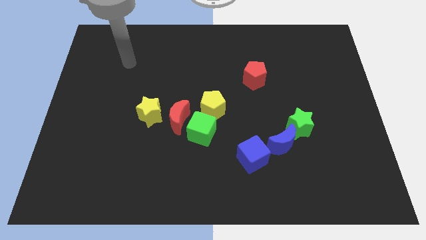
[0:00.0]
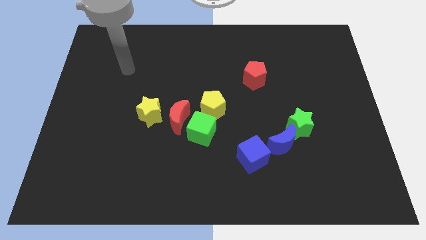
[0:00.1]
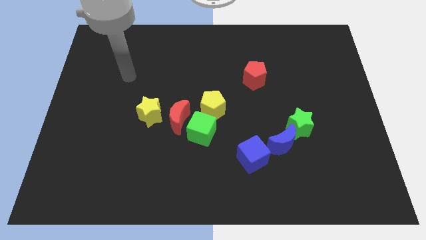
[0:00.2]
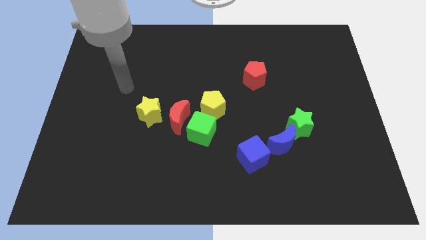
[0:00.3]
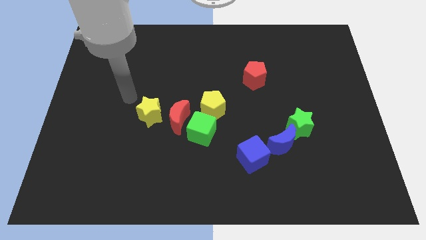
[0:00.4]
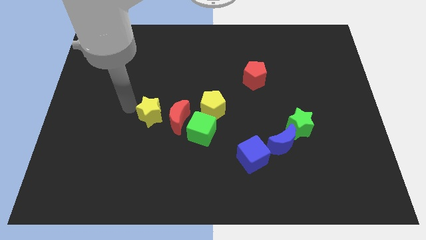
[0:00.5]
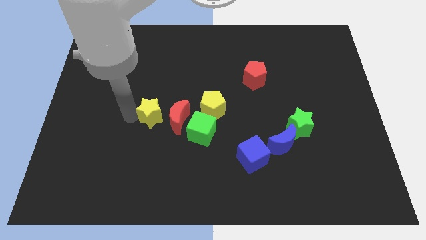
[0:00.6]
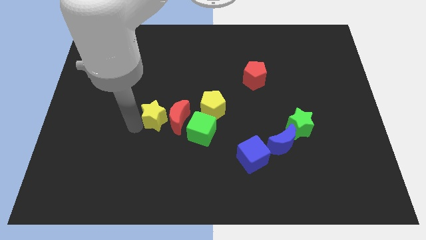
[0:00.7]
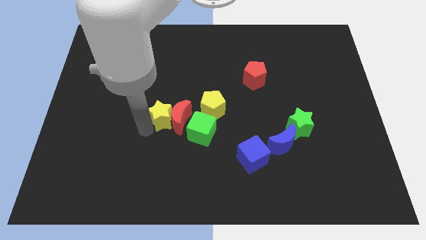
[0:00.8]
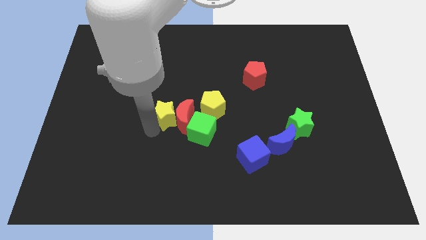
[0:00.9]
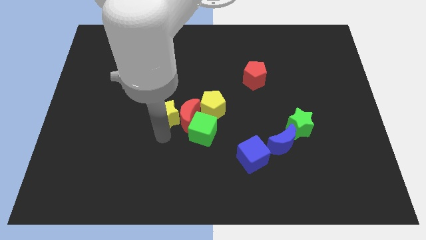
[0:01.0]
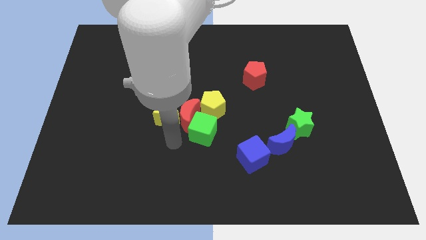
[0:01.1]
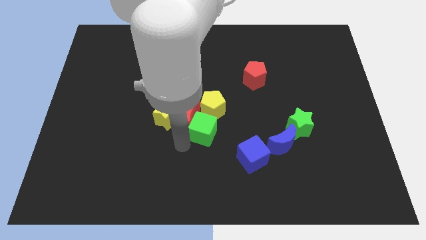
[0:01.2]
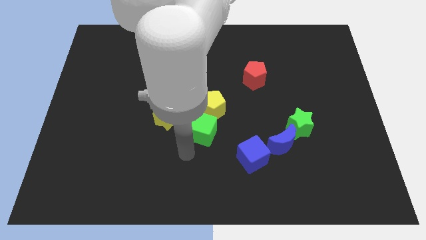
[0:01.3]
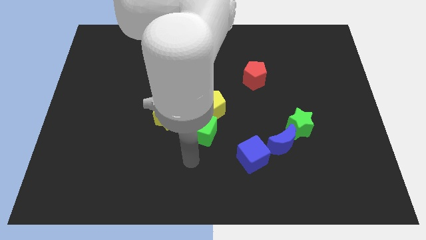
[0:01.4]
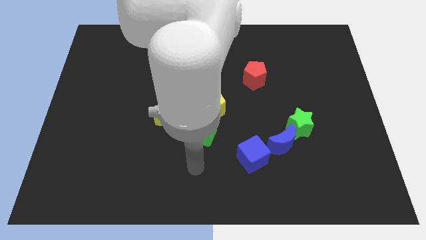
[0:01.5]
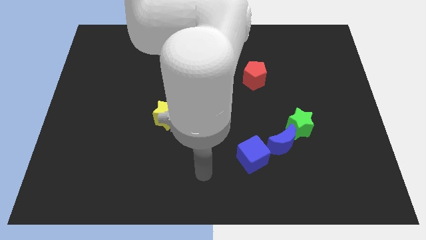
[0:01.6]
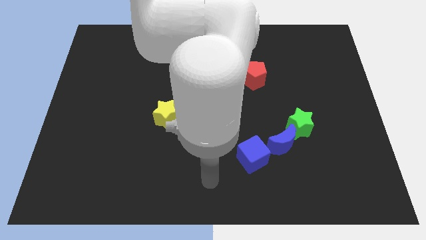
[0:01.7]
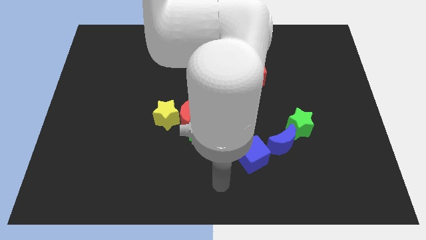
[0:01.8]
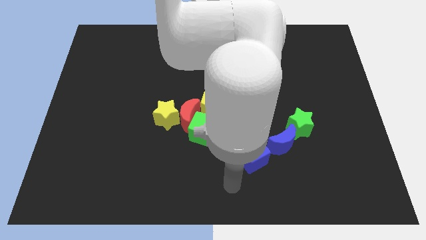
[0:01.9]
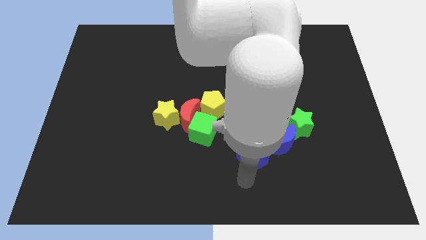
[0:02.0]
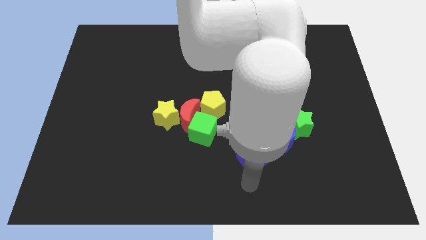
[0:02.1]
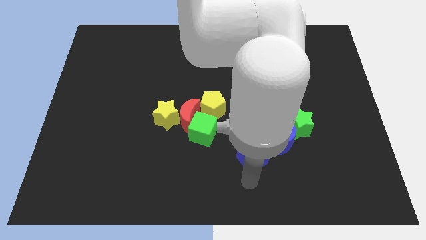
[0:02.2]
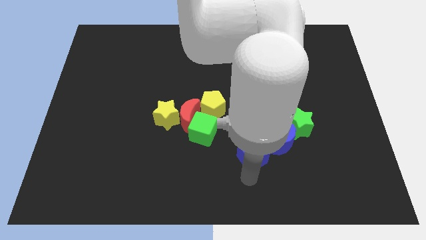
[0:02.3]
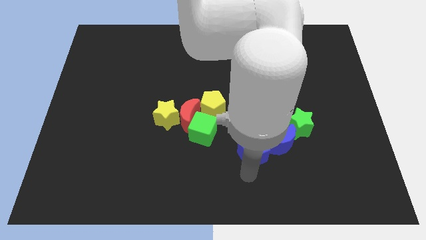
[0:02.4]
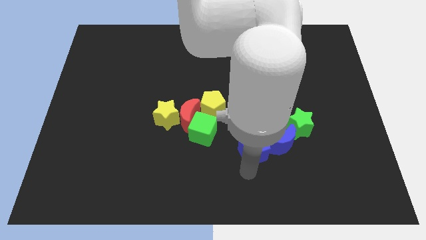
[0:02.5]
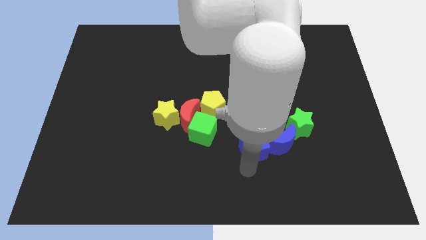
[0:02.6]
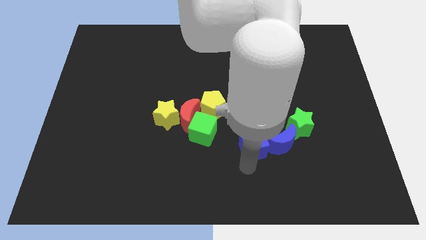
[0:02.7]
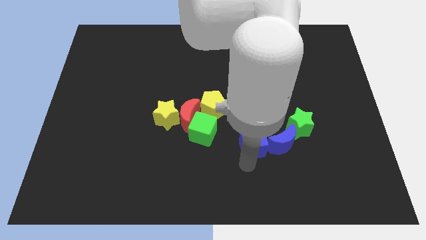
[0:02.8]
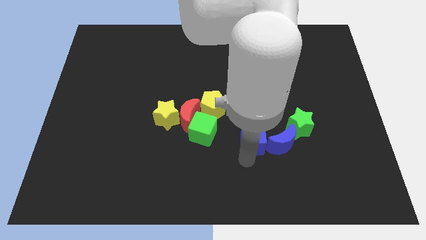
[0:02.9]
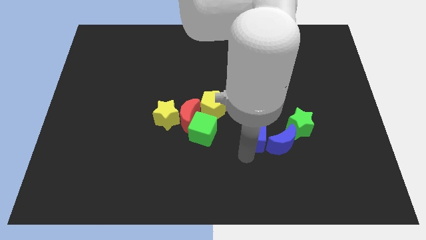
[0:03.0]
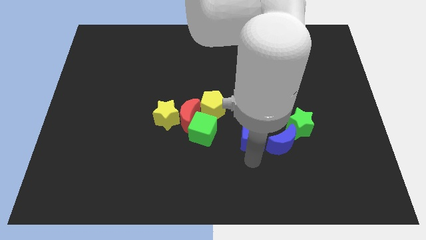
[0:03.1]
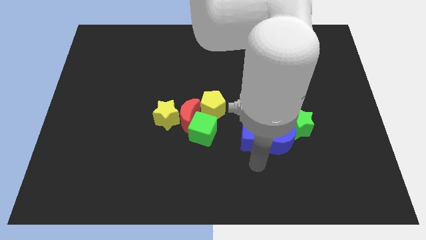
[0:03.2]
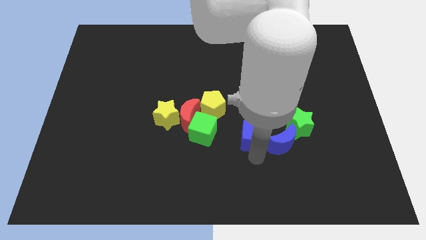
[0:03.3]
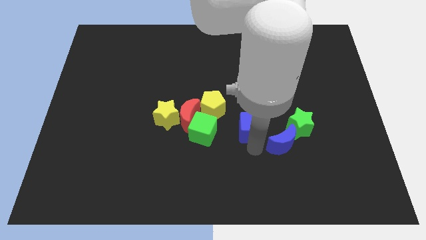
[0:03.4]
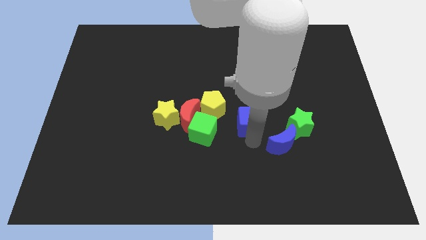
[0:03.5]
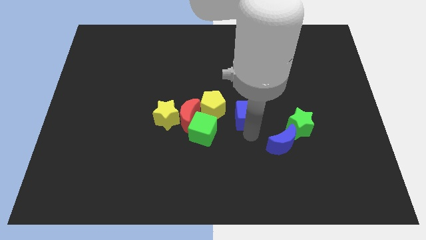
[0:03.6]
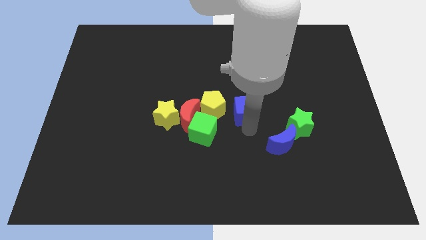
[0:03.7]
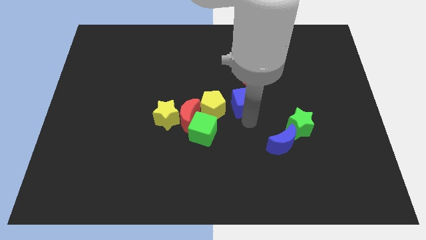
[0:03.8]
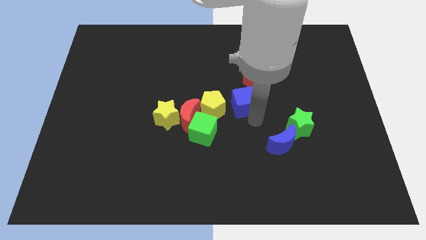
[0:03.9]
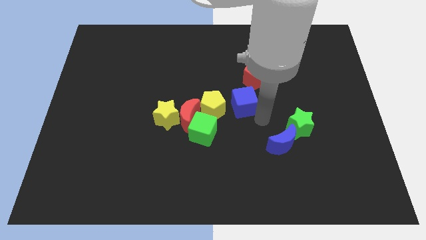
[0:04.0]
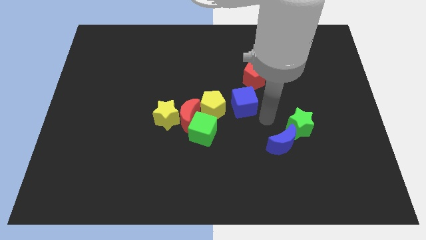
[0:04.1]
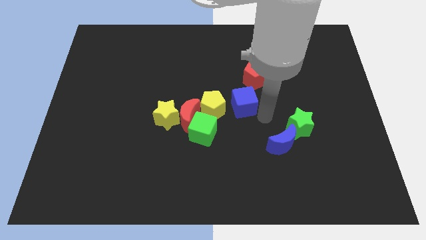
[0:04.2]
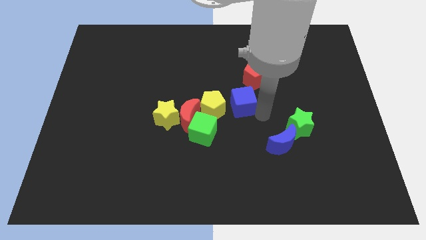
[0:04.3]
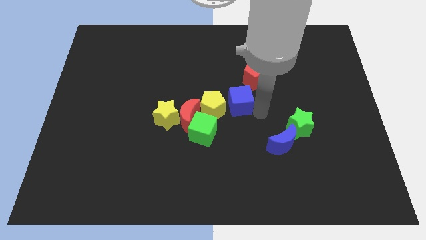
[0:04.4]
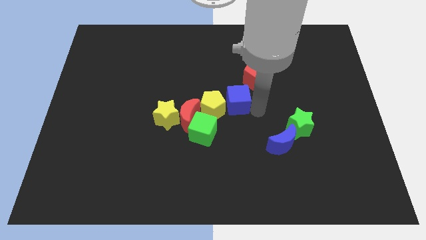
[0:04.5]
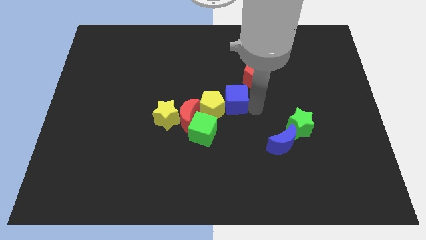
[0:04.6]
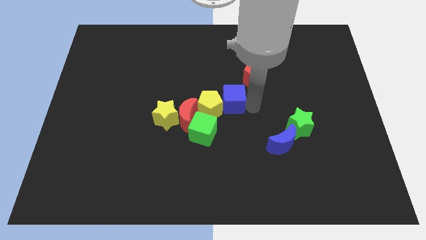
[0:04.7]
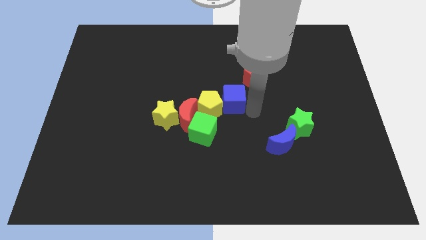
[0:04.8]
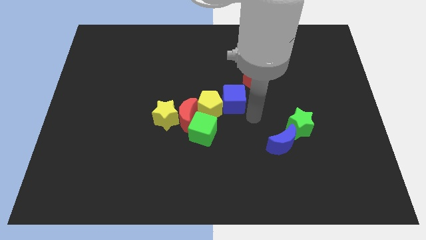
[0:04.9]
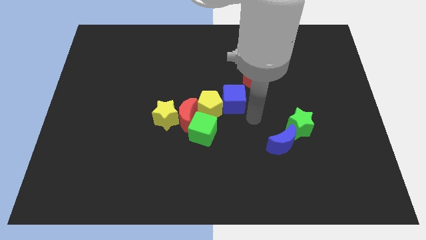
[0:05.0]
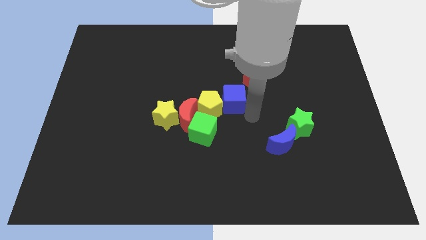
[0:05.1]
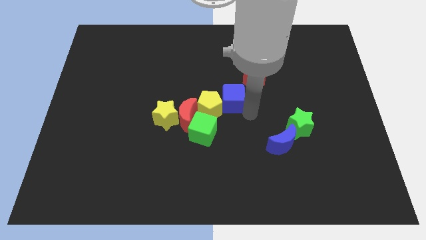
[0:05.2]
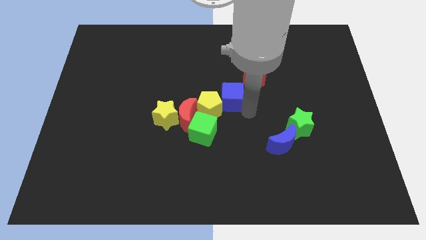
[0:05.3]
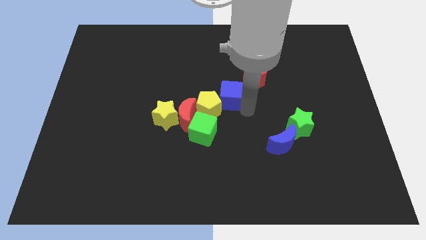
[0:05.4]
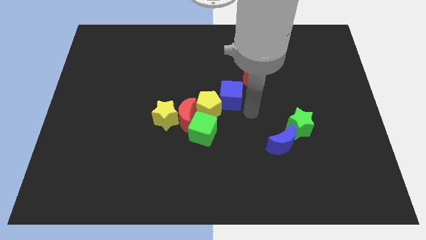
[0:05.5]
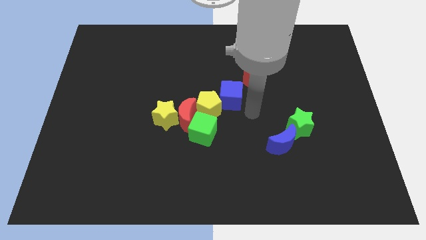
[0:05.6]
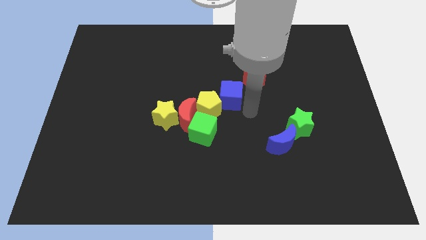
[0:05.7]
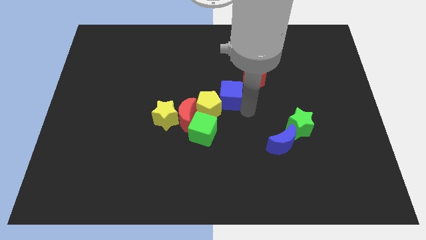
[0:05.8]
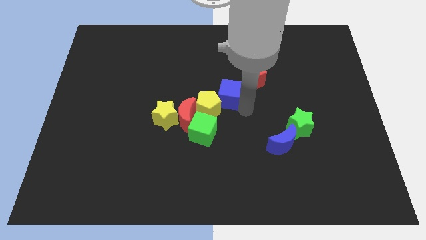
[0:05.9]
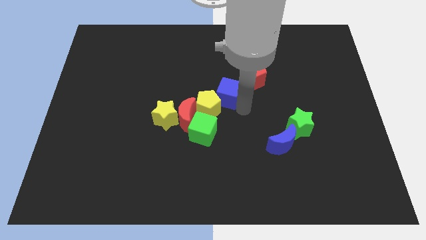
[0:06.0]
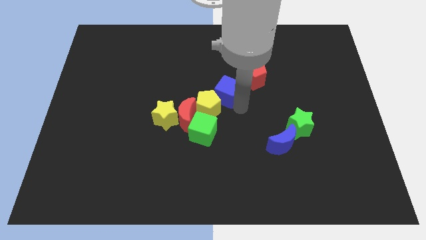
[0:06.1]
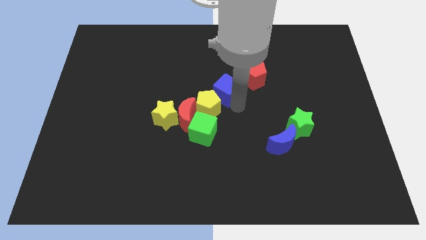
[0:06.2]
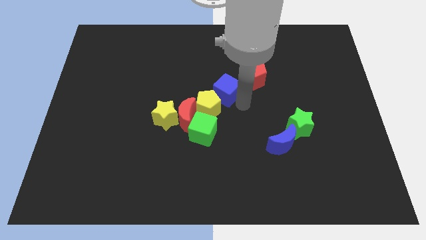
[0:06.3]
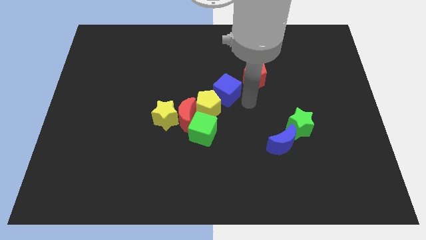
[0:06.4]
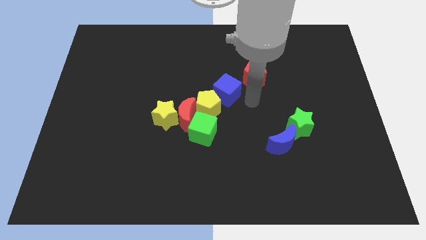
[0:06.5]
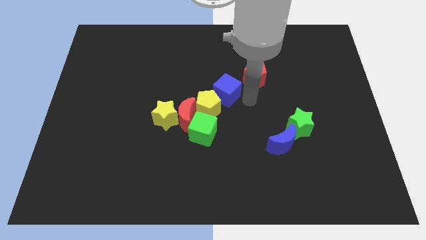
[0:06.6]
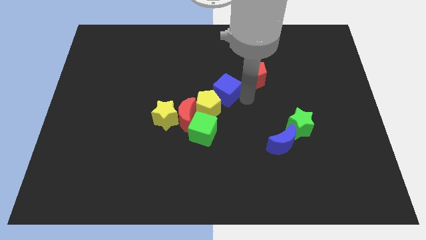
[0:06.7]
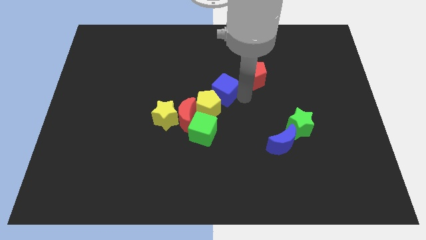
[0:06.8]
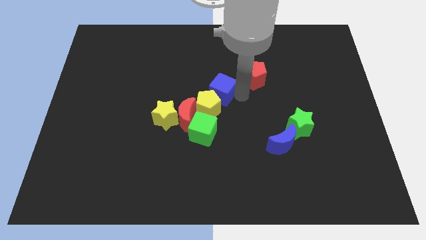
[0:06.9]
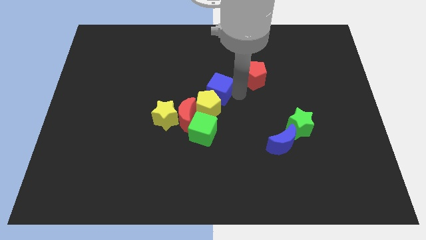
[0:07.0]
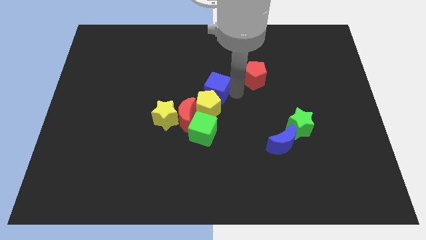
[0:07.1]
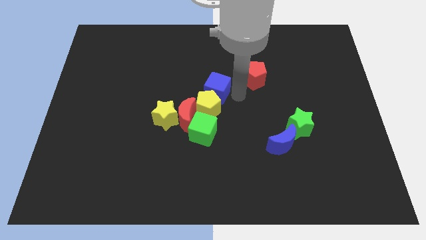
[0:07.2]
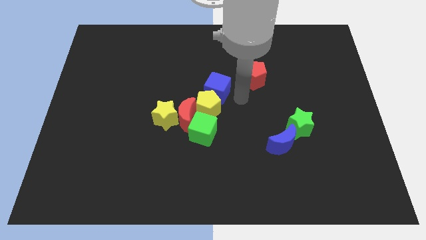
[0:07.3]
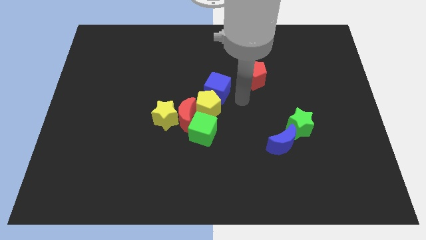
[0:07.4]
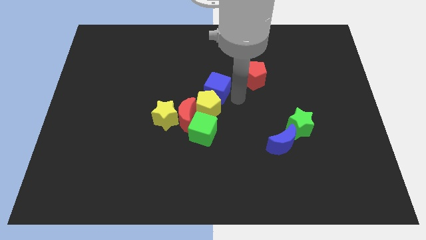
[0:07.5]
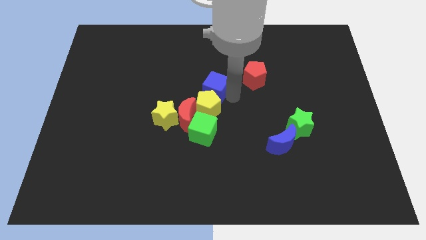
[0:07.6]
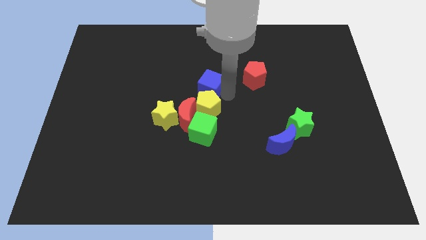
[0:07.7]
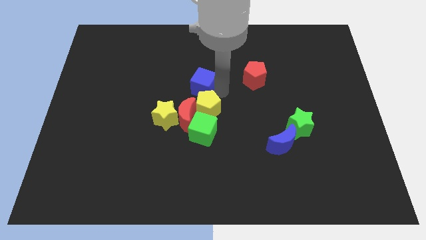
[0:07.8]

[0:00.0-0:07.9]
slide the blue cube up and to the left diagonally
